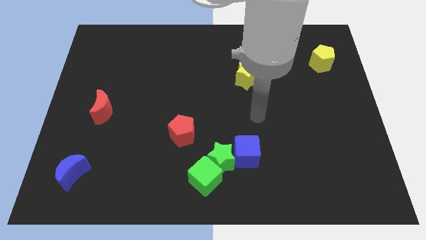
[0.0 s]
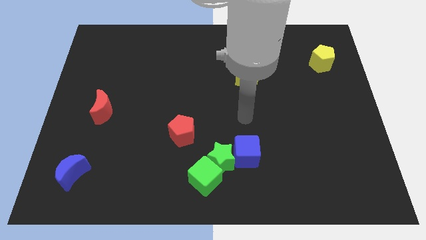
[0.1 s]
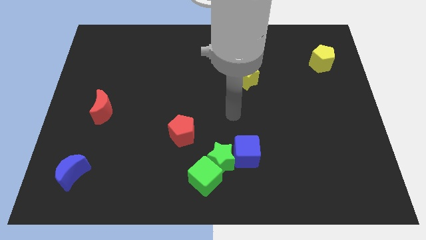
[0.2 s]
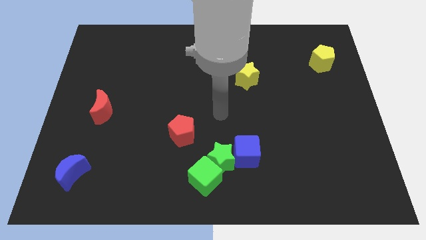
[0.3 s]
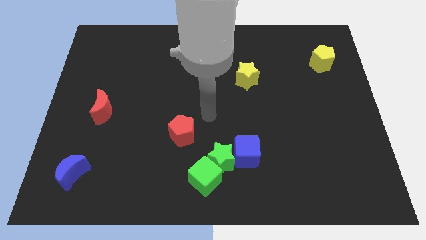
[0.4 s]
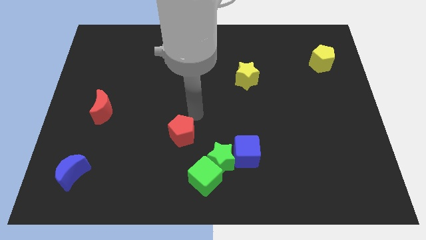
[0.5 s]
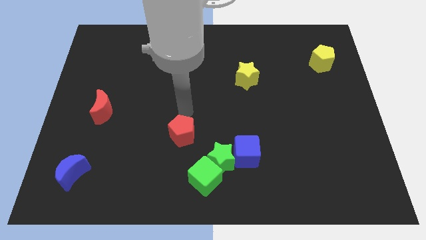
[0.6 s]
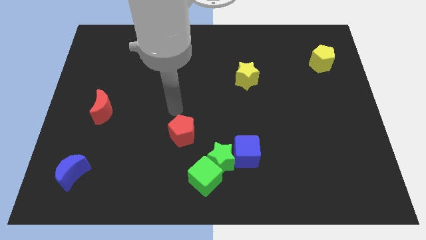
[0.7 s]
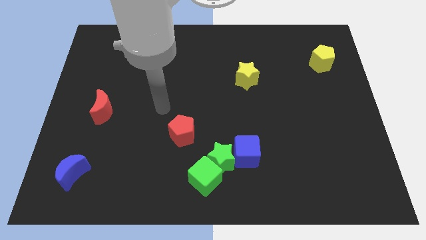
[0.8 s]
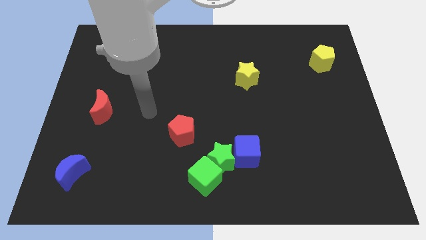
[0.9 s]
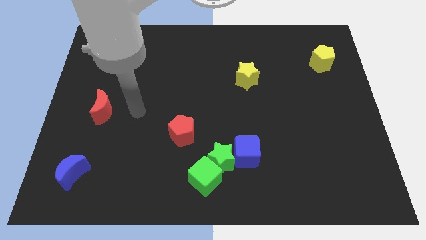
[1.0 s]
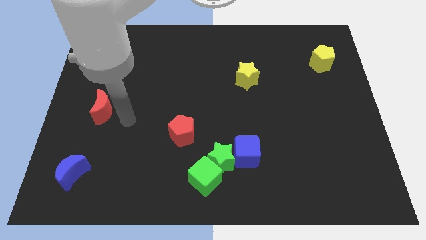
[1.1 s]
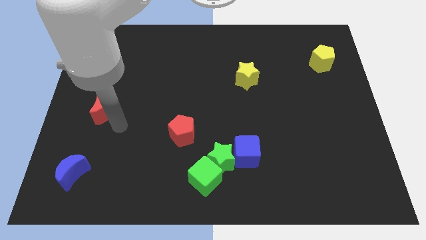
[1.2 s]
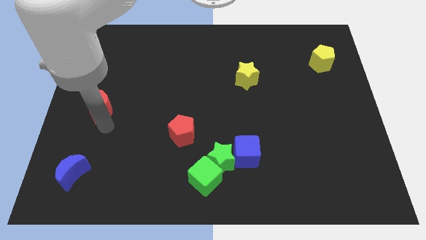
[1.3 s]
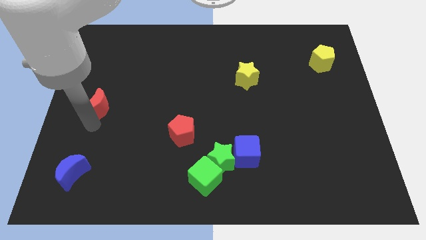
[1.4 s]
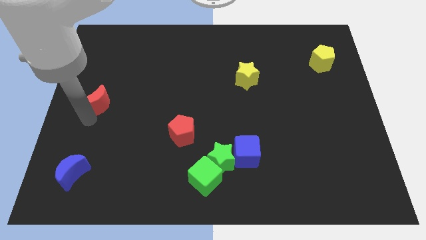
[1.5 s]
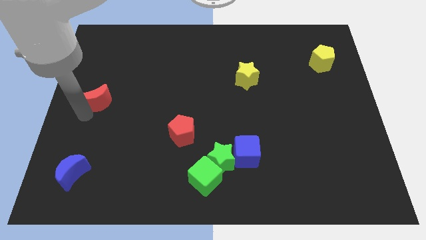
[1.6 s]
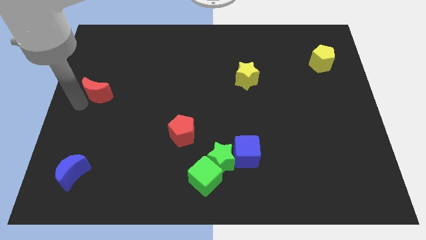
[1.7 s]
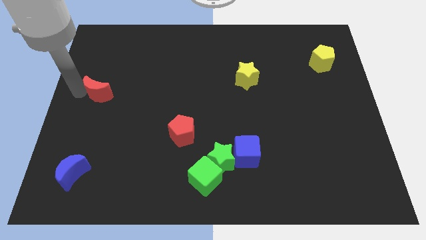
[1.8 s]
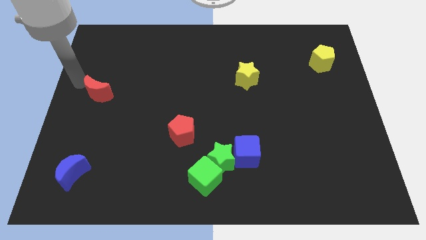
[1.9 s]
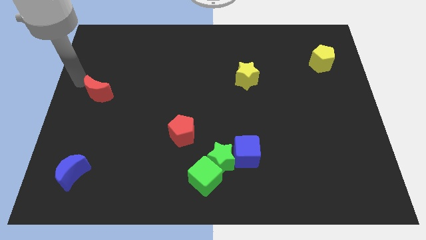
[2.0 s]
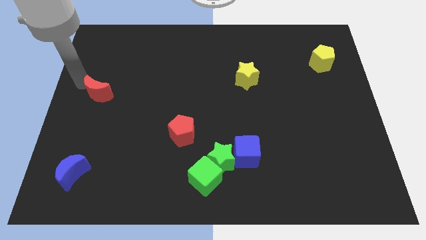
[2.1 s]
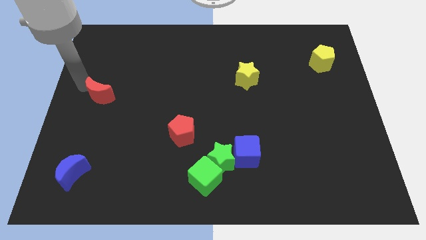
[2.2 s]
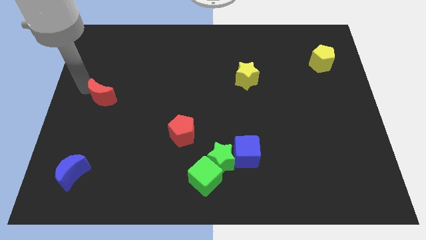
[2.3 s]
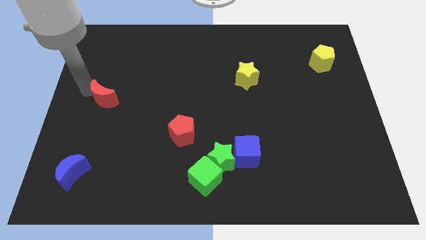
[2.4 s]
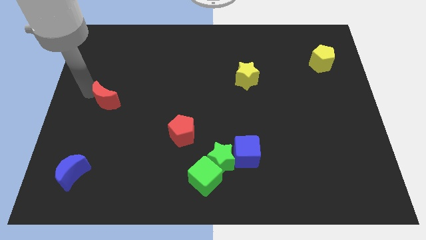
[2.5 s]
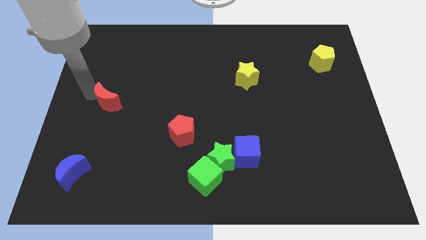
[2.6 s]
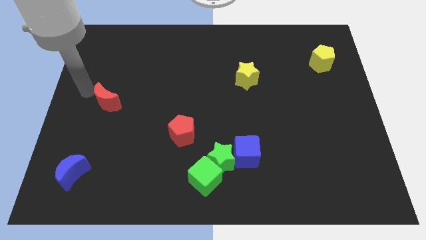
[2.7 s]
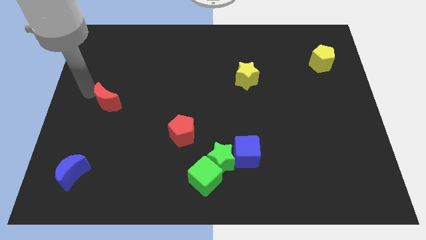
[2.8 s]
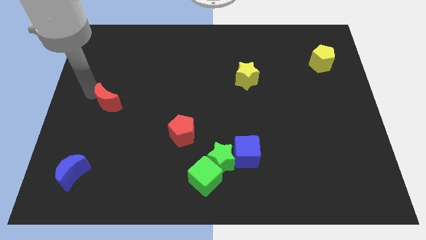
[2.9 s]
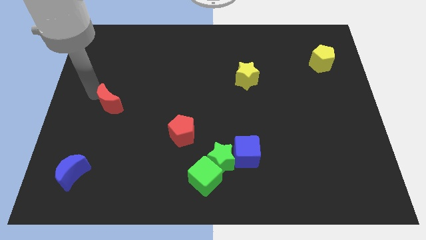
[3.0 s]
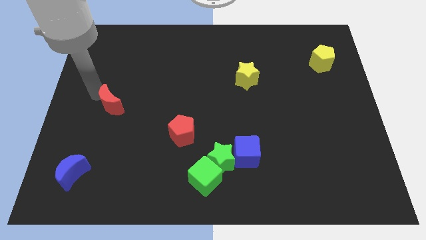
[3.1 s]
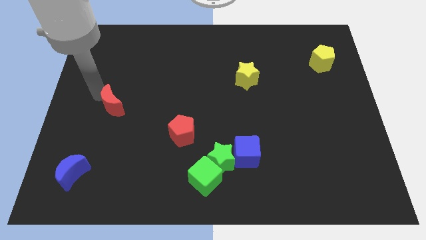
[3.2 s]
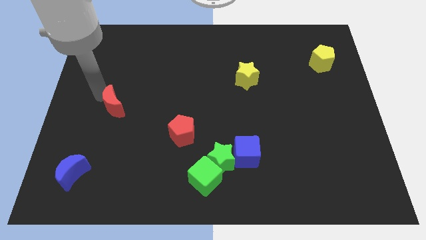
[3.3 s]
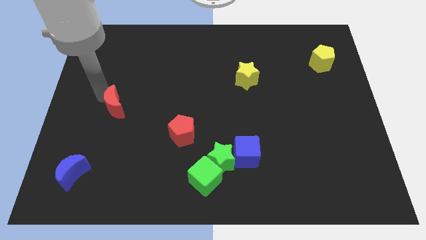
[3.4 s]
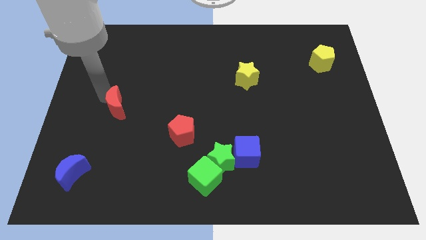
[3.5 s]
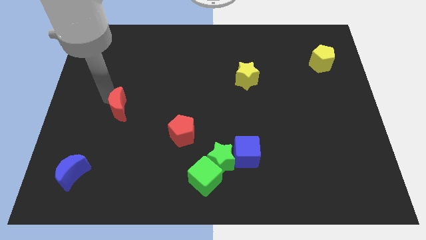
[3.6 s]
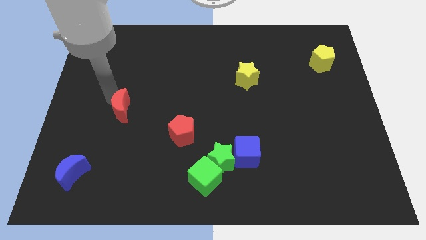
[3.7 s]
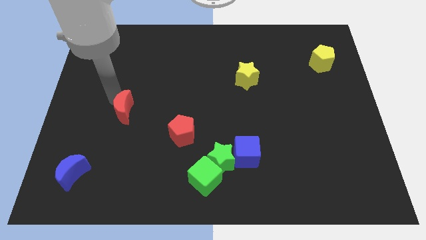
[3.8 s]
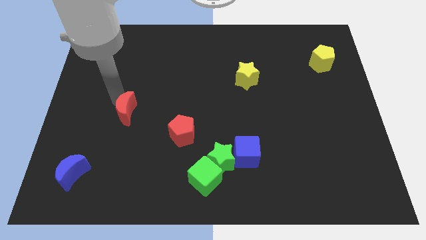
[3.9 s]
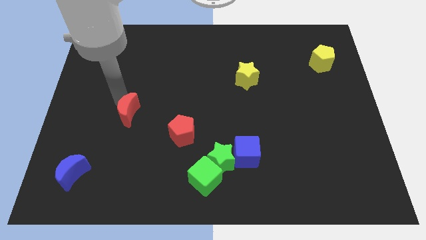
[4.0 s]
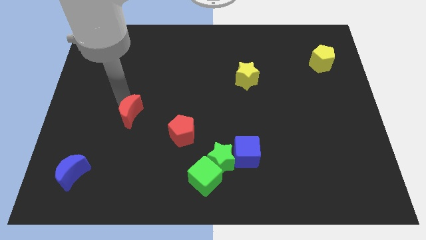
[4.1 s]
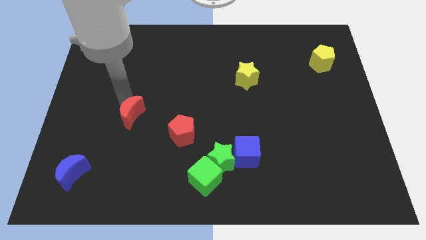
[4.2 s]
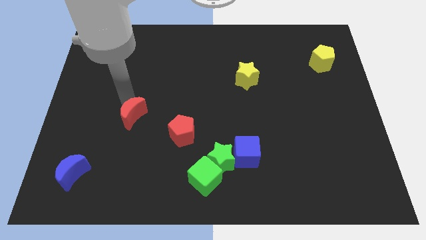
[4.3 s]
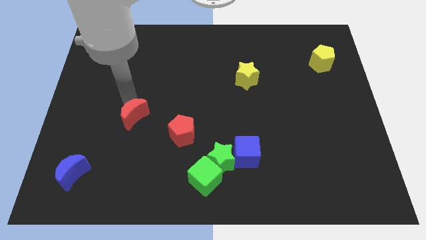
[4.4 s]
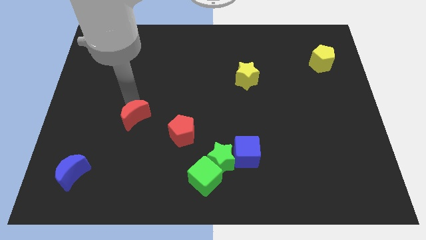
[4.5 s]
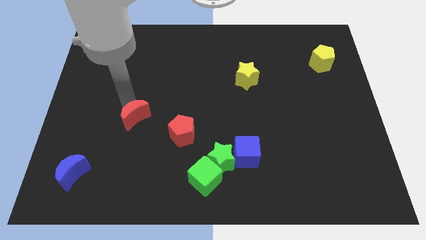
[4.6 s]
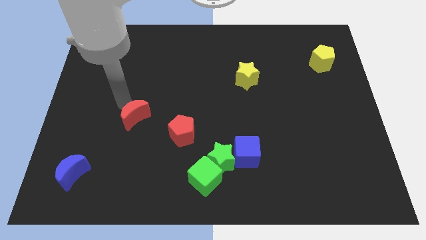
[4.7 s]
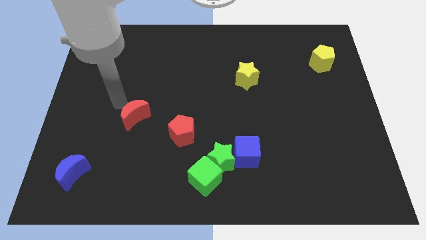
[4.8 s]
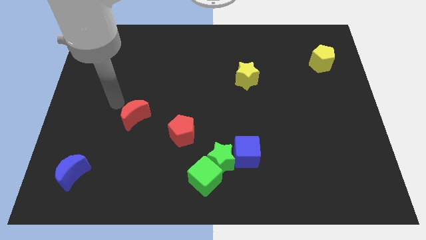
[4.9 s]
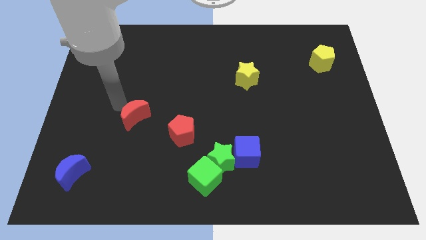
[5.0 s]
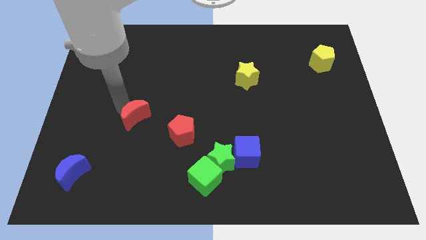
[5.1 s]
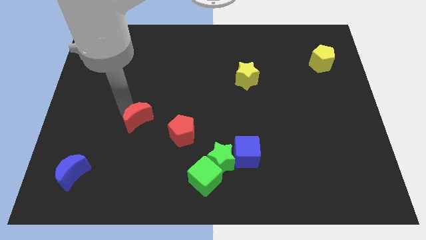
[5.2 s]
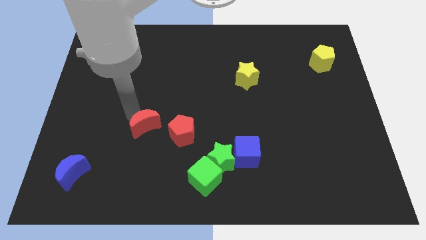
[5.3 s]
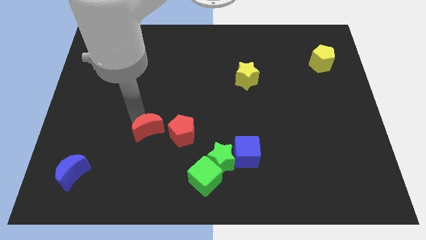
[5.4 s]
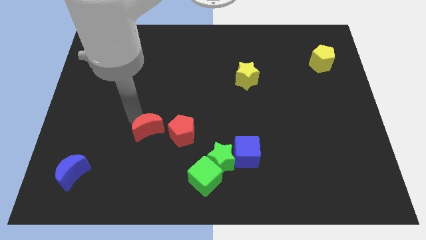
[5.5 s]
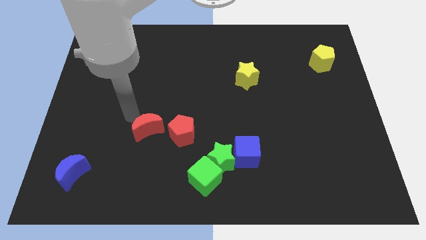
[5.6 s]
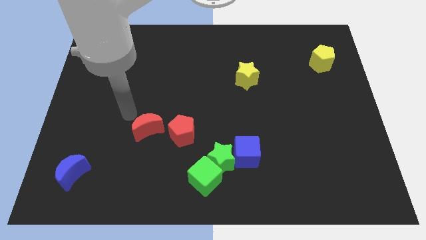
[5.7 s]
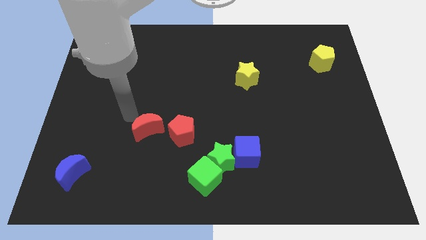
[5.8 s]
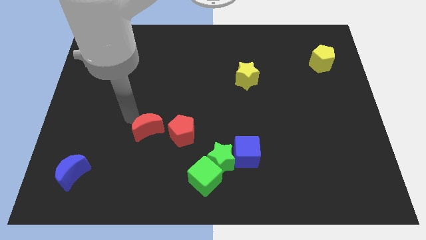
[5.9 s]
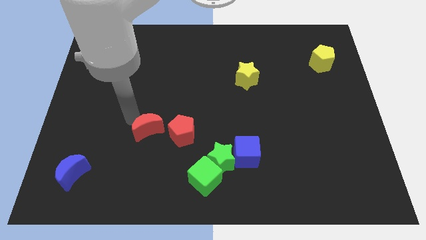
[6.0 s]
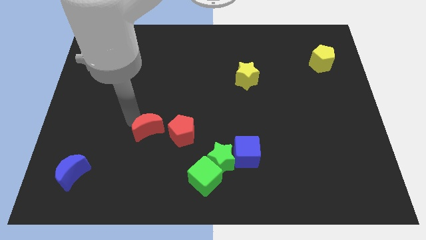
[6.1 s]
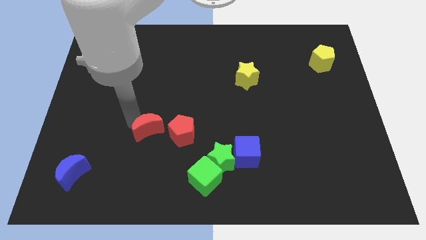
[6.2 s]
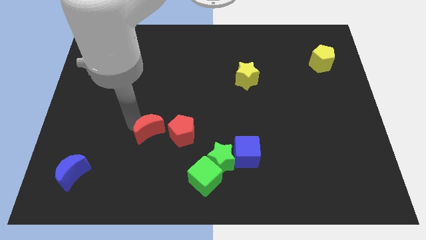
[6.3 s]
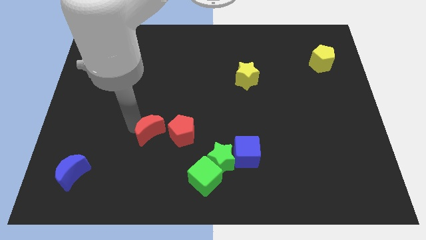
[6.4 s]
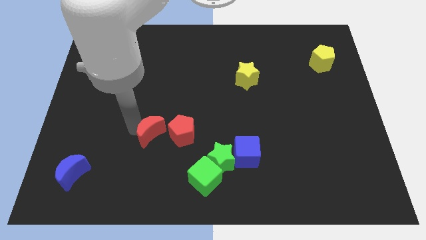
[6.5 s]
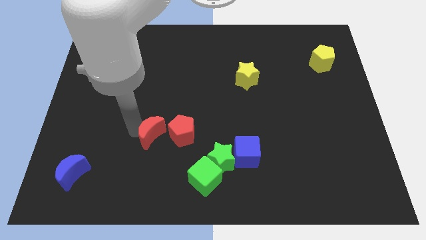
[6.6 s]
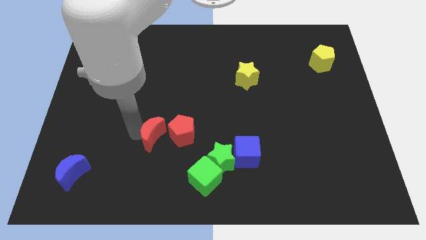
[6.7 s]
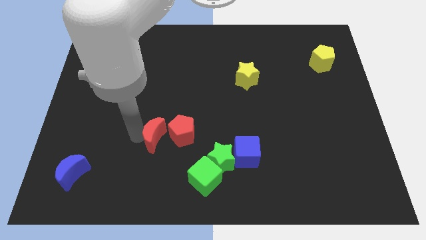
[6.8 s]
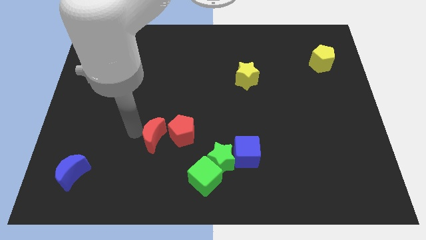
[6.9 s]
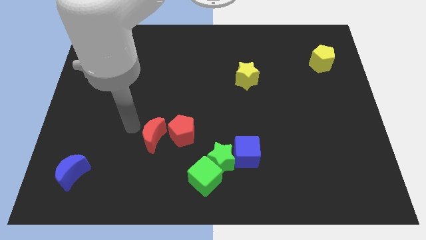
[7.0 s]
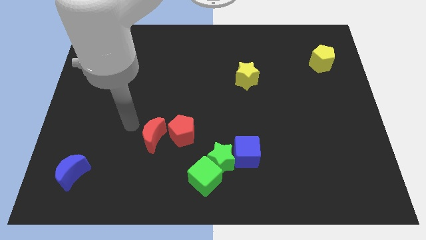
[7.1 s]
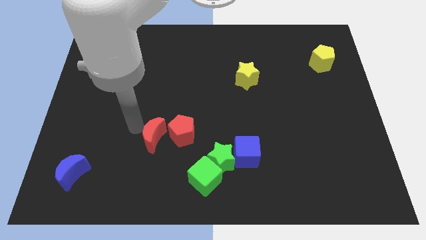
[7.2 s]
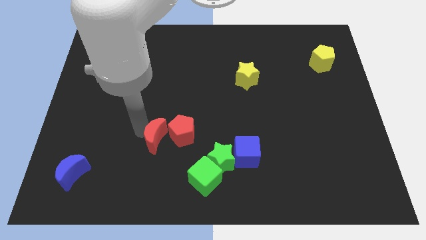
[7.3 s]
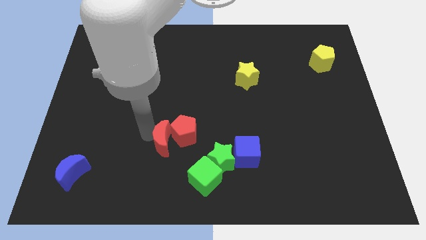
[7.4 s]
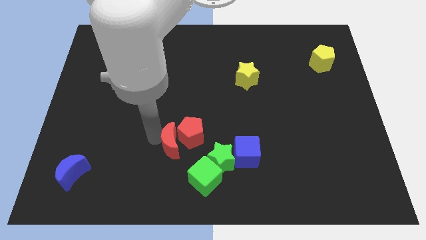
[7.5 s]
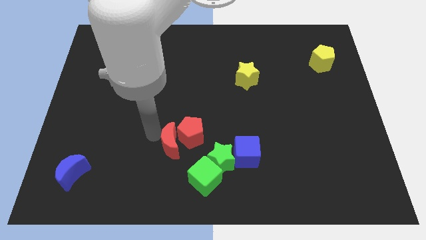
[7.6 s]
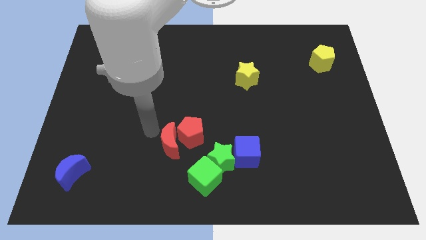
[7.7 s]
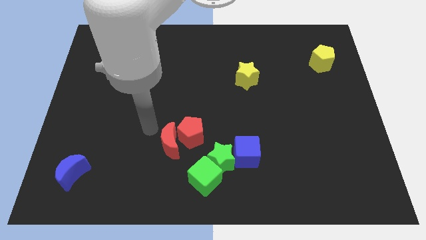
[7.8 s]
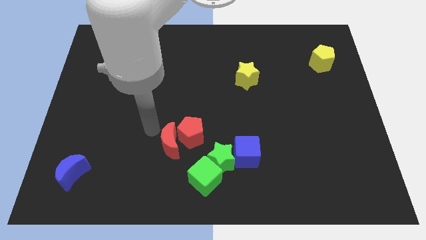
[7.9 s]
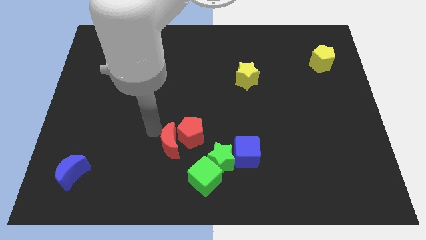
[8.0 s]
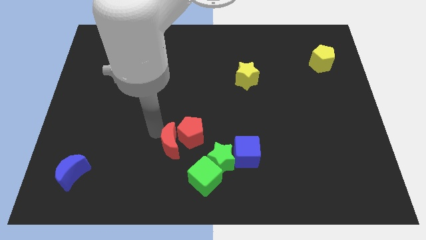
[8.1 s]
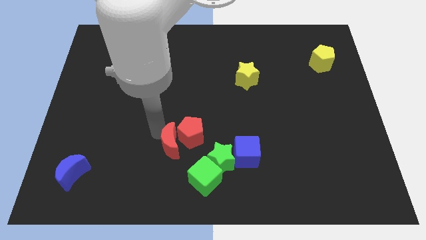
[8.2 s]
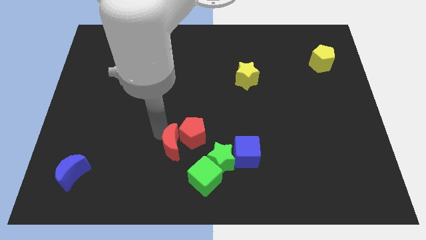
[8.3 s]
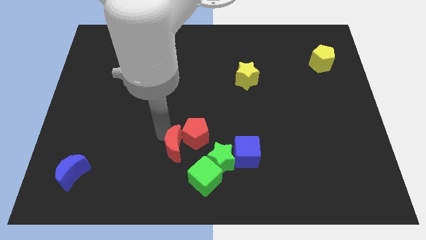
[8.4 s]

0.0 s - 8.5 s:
push the red moon to the left of the blue cube
